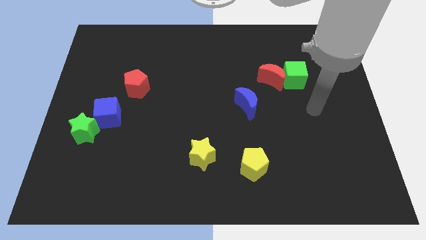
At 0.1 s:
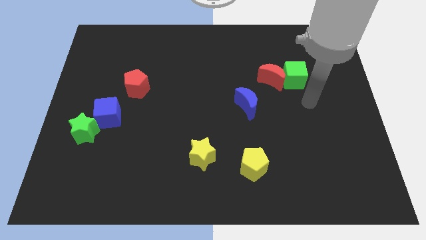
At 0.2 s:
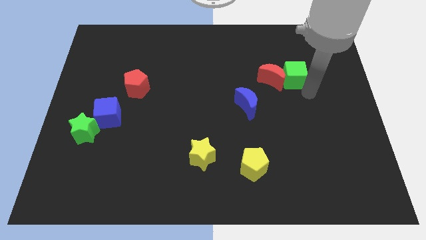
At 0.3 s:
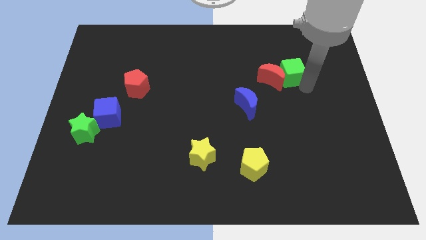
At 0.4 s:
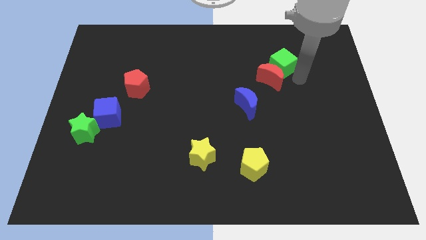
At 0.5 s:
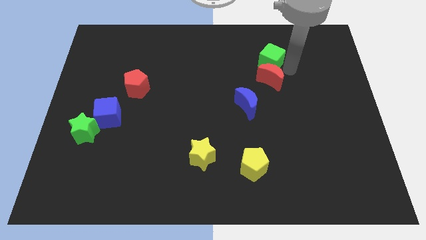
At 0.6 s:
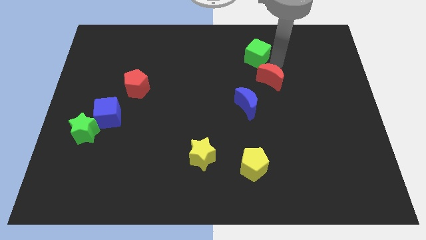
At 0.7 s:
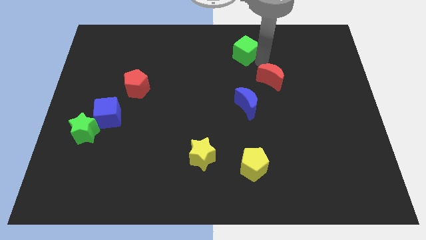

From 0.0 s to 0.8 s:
separate the red moon from the green cube

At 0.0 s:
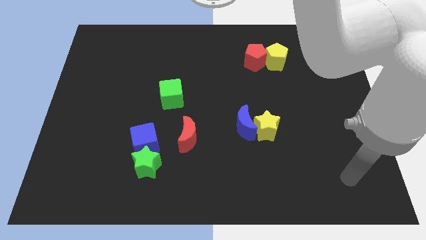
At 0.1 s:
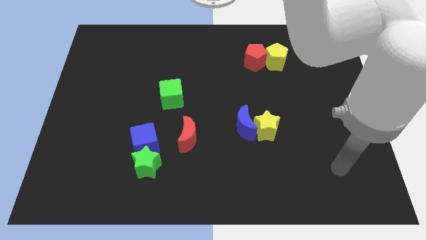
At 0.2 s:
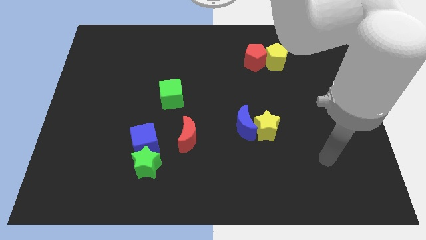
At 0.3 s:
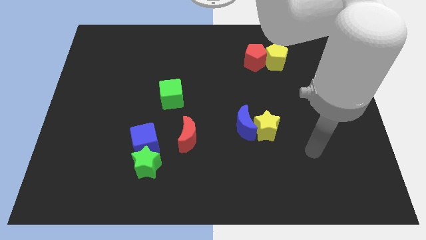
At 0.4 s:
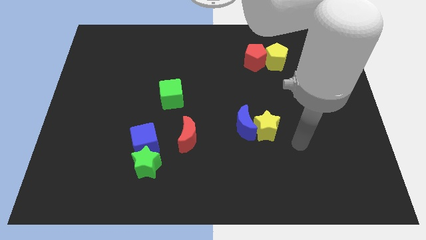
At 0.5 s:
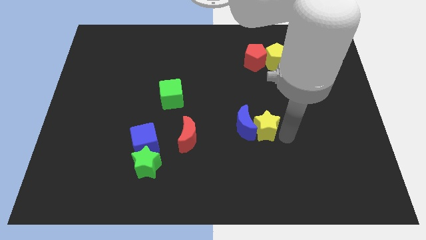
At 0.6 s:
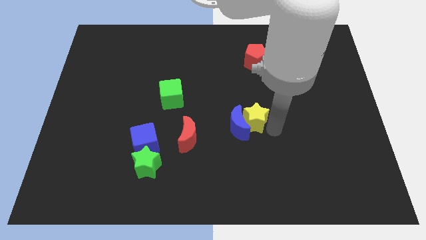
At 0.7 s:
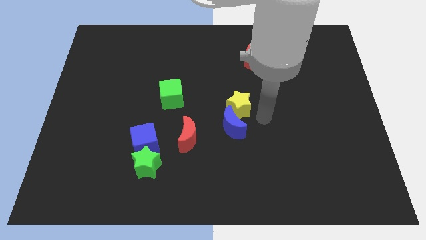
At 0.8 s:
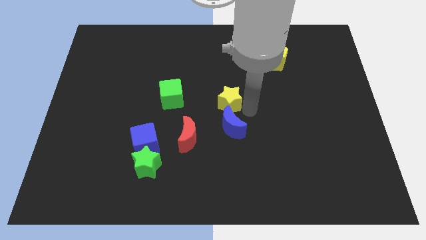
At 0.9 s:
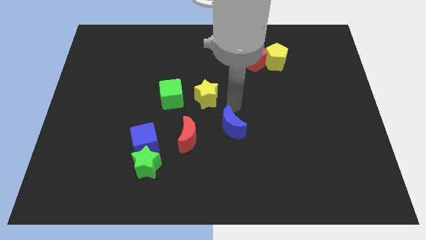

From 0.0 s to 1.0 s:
separate the blue moon from the yellow star

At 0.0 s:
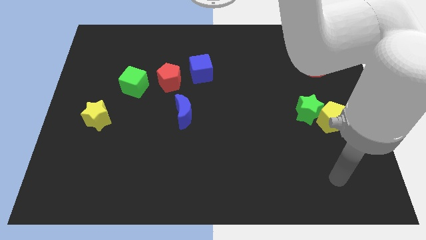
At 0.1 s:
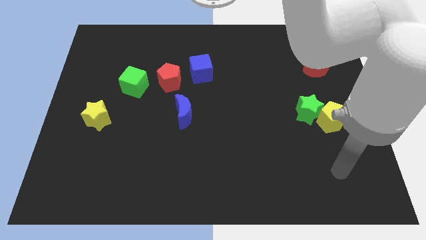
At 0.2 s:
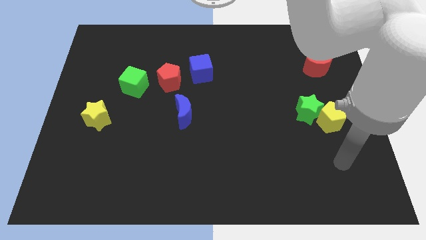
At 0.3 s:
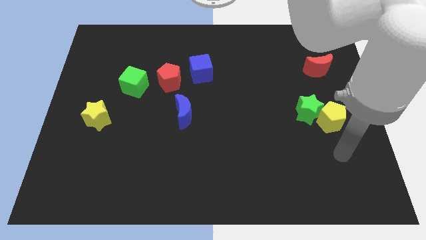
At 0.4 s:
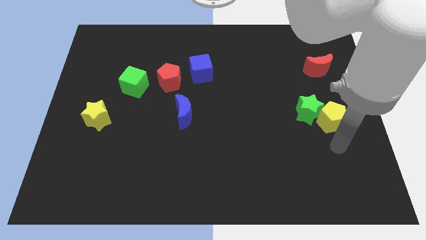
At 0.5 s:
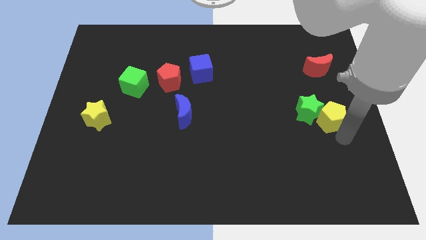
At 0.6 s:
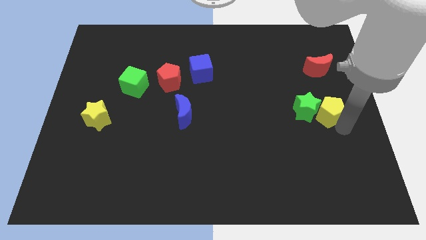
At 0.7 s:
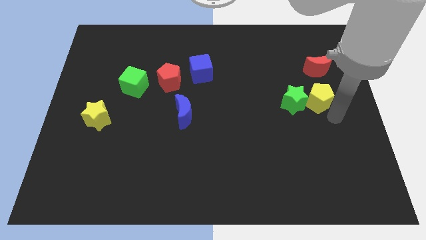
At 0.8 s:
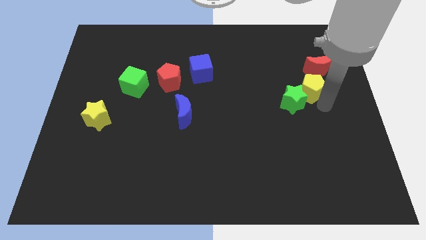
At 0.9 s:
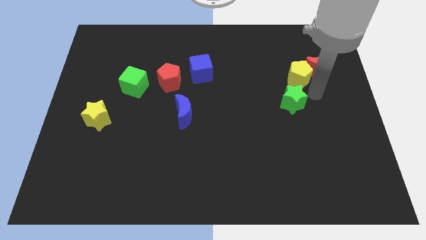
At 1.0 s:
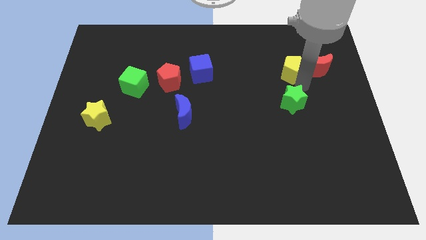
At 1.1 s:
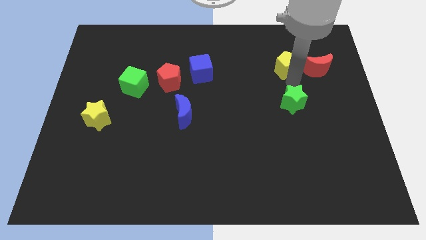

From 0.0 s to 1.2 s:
move the green star away from the yellow pentagon

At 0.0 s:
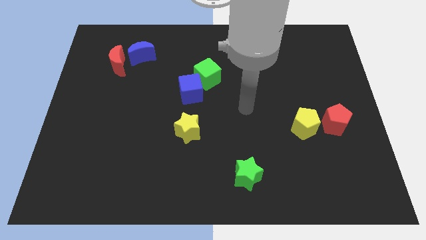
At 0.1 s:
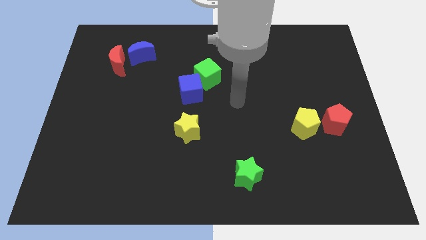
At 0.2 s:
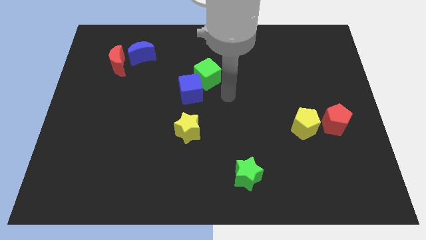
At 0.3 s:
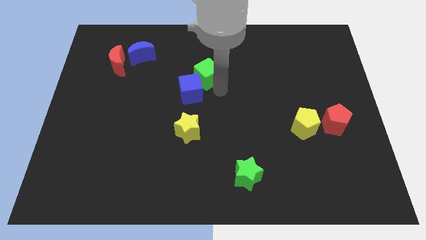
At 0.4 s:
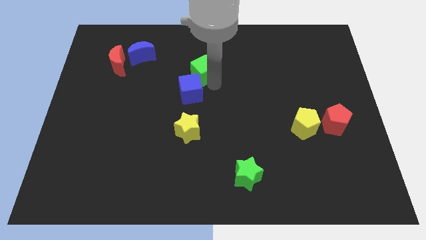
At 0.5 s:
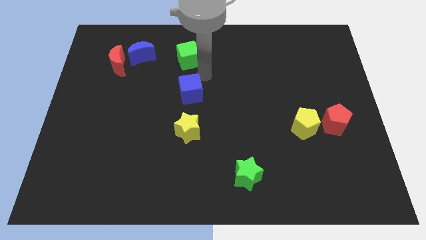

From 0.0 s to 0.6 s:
pull the blue cube apart from the green cube

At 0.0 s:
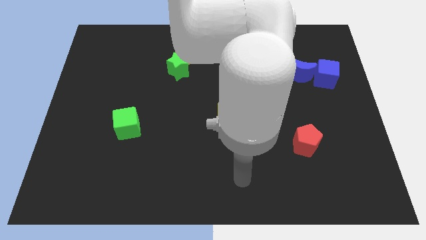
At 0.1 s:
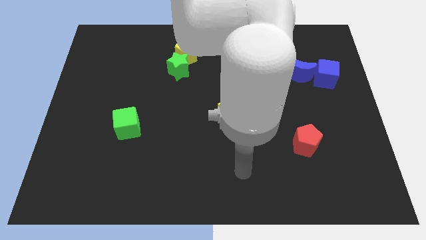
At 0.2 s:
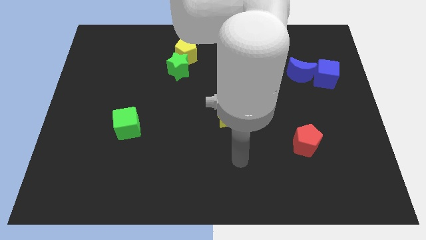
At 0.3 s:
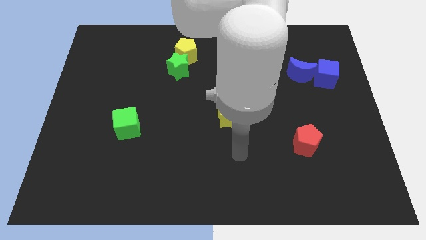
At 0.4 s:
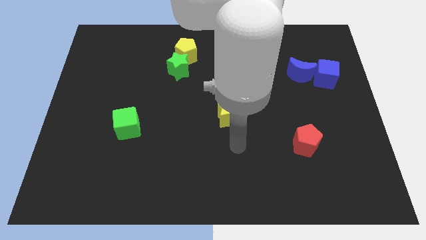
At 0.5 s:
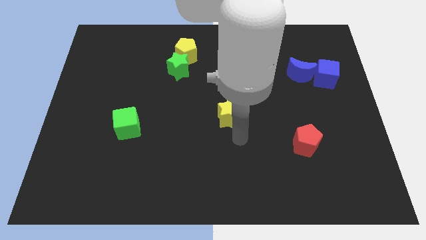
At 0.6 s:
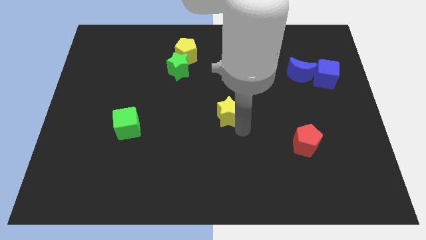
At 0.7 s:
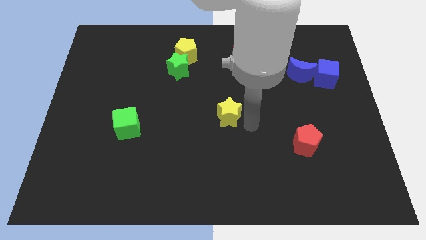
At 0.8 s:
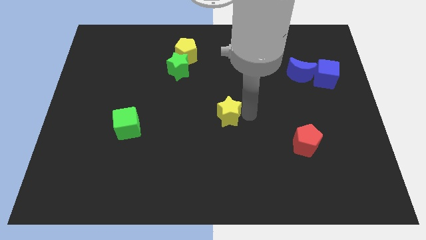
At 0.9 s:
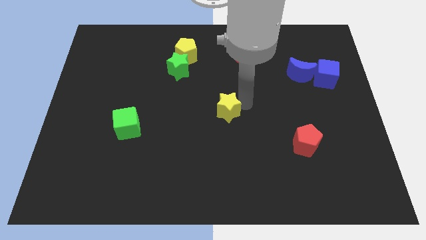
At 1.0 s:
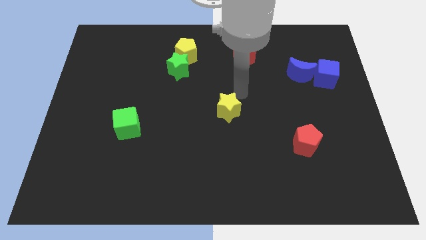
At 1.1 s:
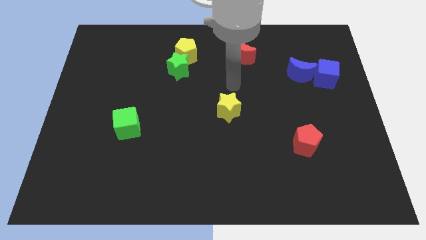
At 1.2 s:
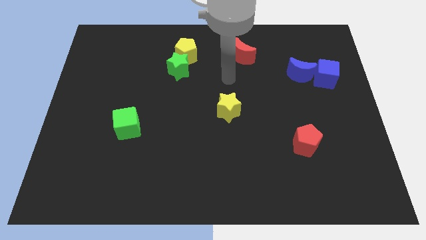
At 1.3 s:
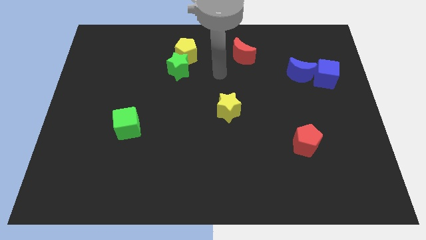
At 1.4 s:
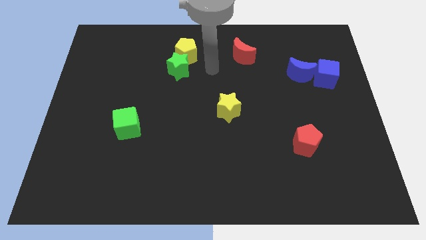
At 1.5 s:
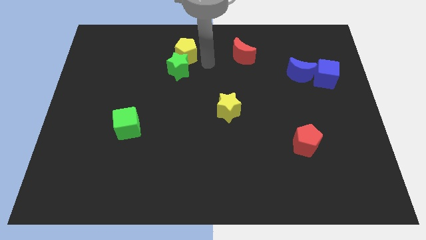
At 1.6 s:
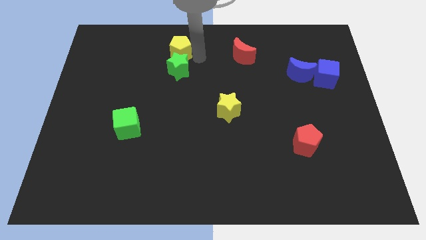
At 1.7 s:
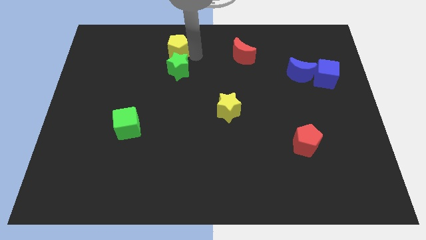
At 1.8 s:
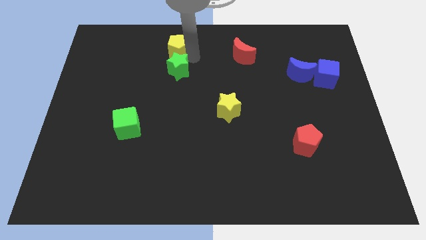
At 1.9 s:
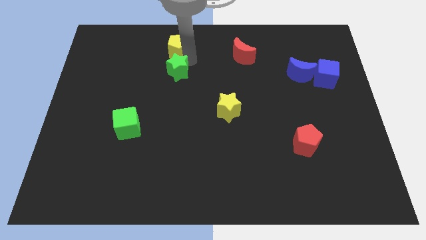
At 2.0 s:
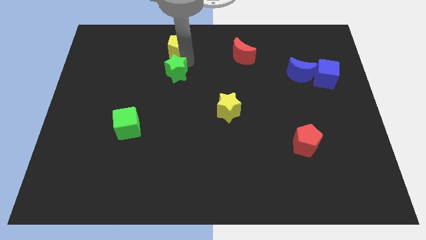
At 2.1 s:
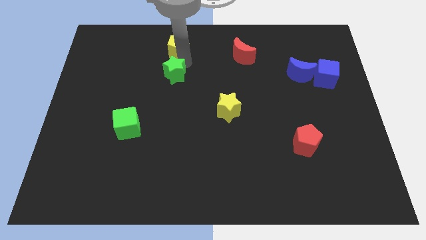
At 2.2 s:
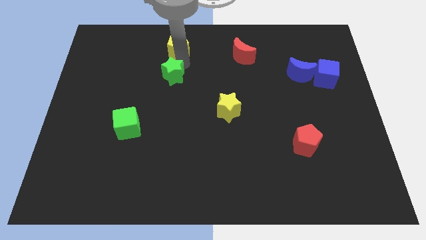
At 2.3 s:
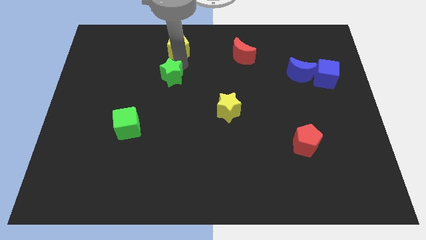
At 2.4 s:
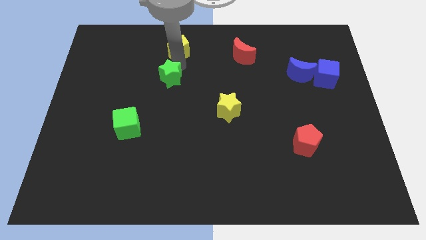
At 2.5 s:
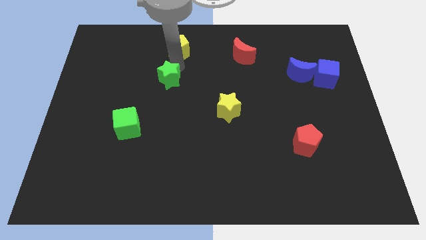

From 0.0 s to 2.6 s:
separate the green star from the yellow pentagon

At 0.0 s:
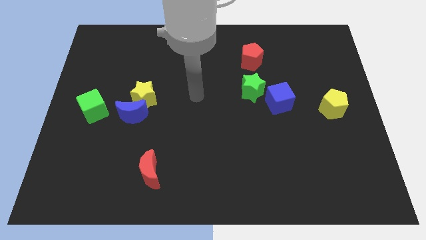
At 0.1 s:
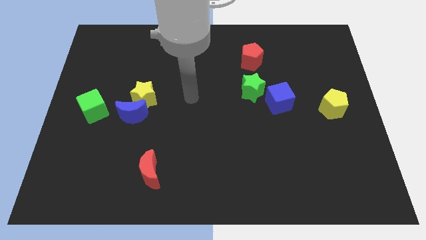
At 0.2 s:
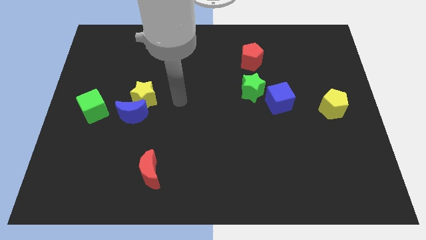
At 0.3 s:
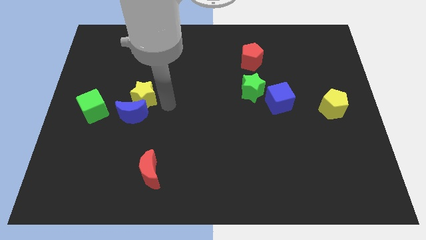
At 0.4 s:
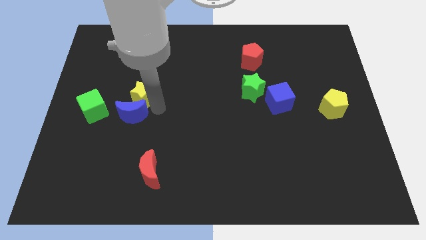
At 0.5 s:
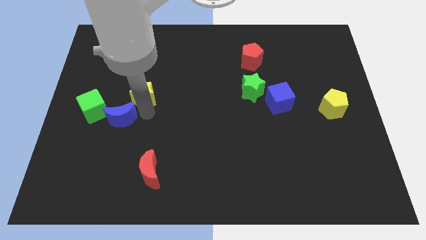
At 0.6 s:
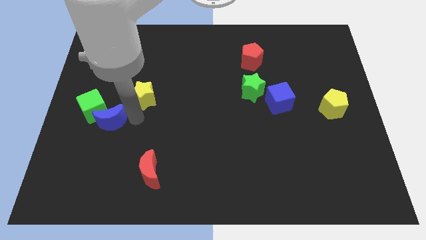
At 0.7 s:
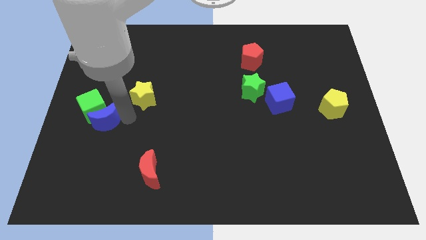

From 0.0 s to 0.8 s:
separate the yellow star from the blue moon

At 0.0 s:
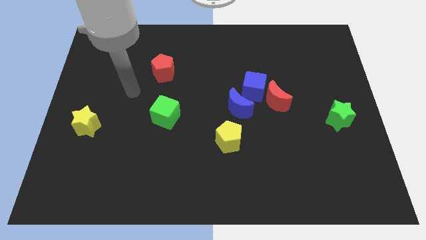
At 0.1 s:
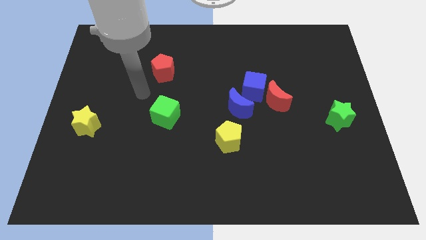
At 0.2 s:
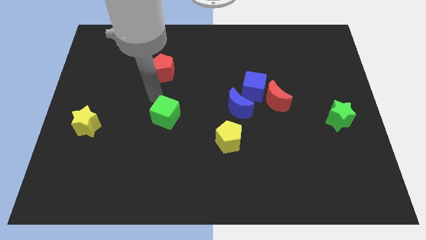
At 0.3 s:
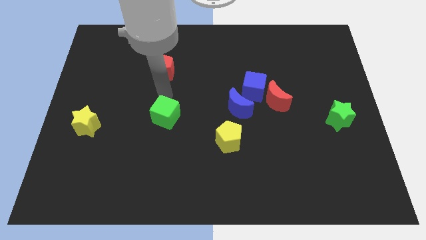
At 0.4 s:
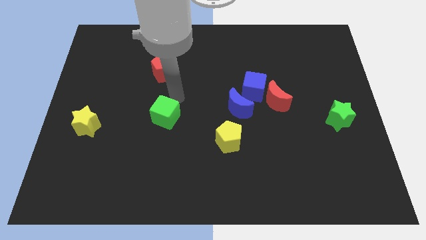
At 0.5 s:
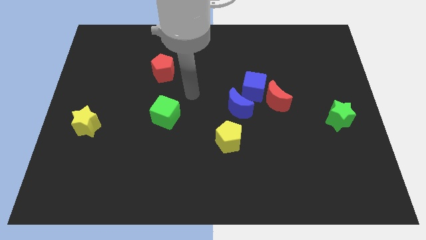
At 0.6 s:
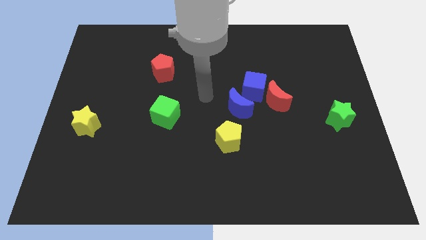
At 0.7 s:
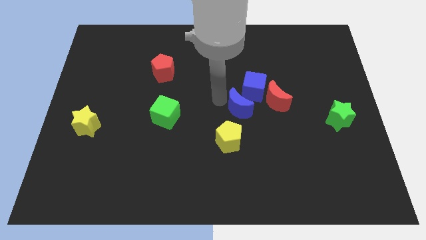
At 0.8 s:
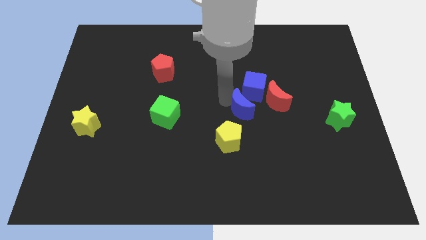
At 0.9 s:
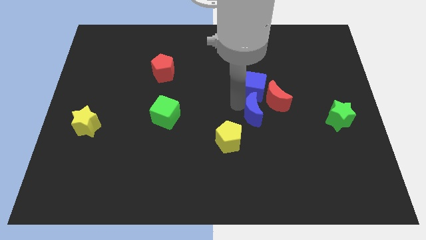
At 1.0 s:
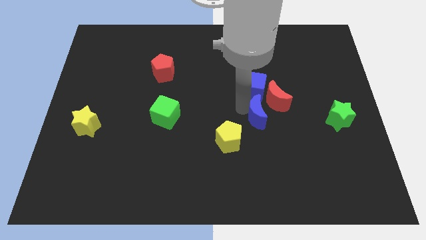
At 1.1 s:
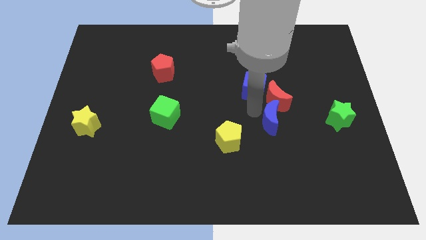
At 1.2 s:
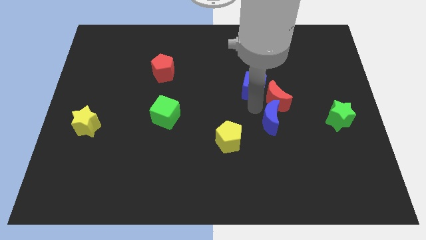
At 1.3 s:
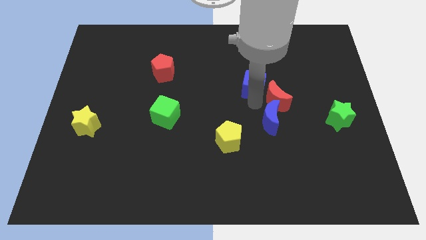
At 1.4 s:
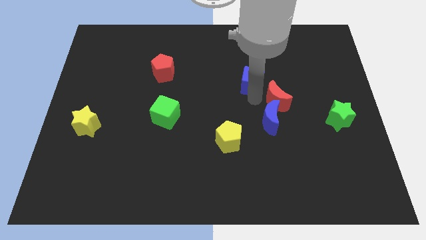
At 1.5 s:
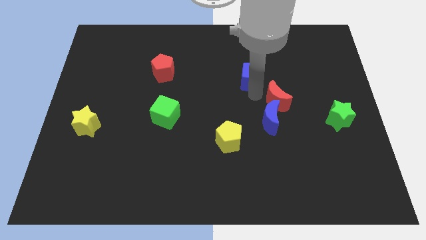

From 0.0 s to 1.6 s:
move the blue cube away from the red moon and blue moon

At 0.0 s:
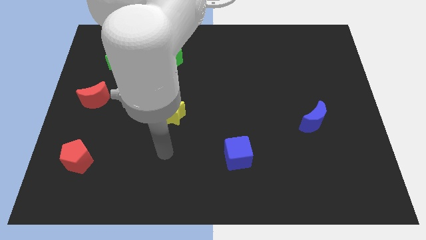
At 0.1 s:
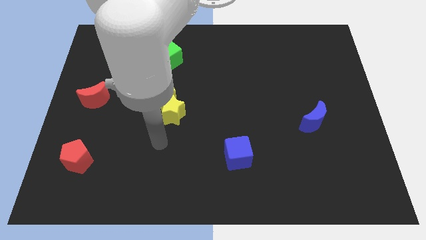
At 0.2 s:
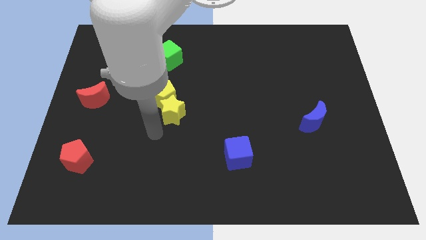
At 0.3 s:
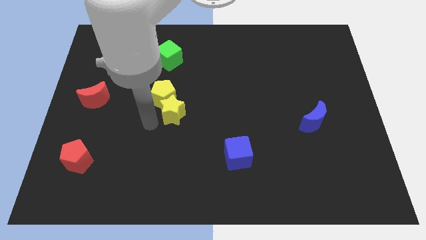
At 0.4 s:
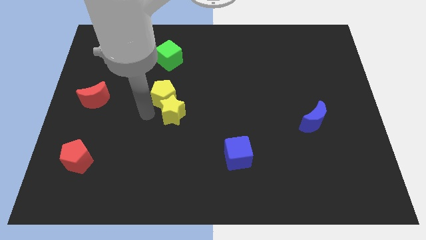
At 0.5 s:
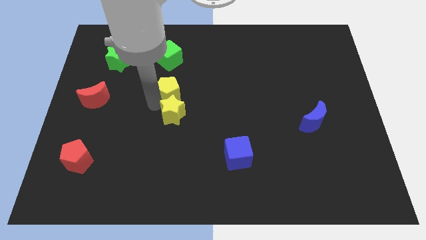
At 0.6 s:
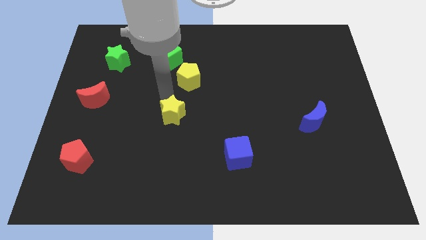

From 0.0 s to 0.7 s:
pull the yellow star apart from the yellow pentagon

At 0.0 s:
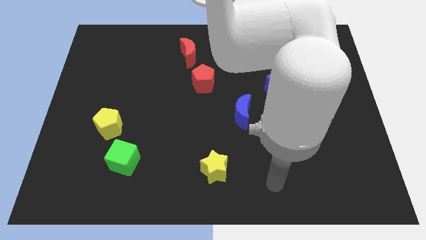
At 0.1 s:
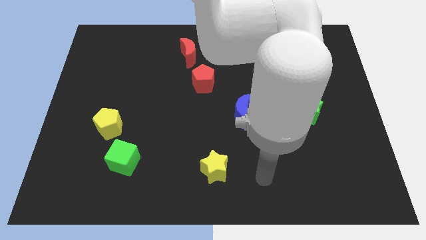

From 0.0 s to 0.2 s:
separate the green cube from the yellow pentagon
